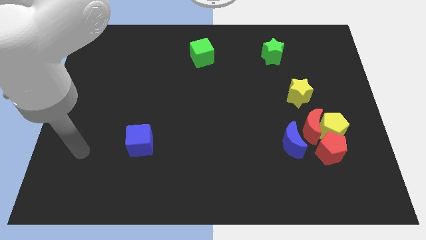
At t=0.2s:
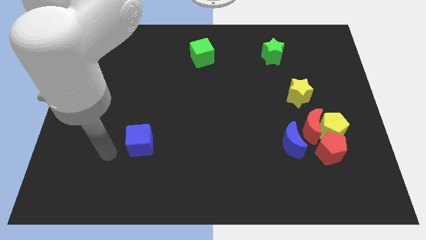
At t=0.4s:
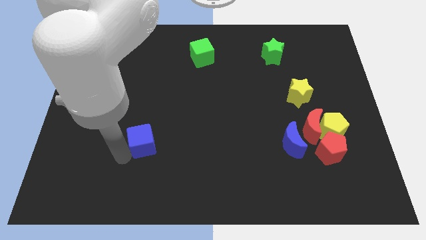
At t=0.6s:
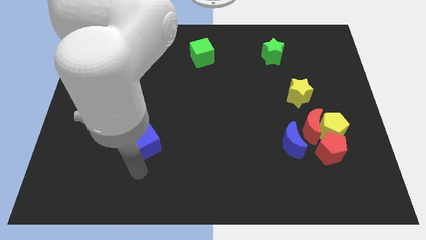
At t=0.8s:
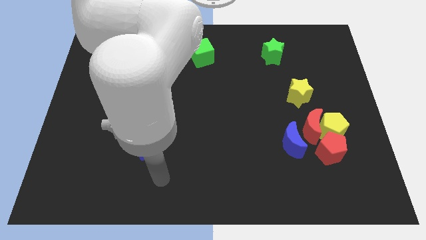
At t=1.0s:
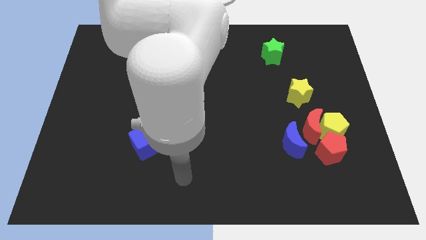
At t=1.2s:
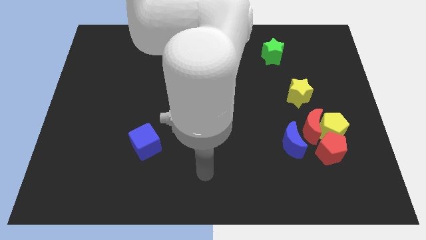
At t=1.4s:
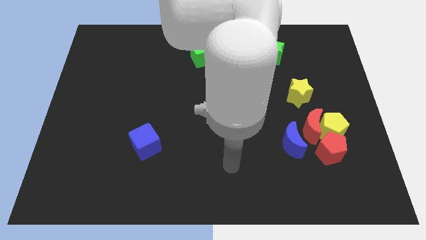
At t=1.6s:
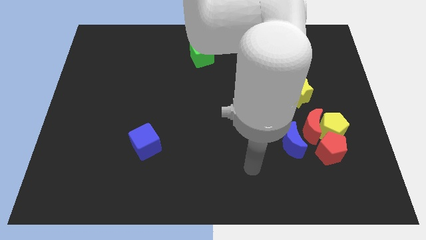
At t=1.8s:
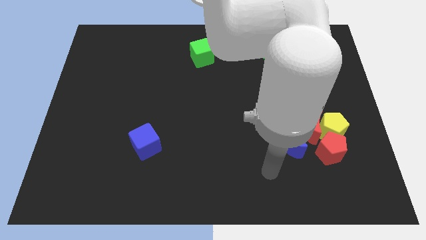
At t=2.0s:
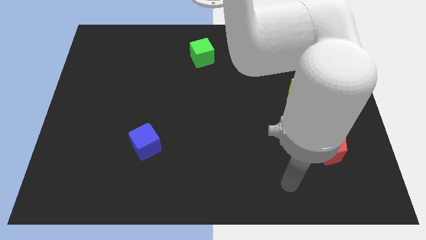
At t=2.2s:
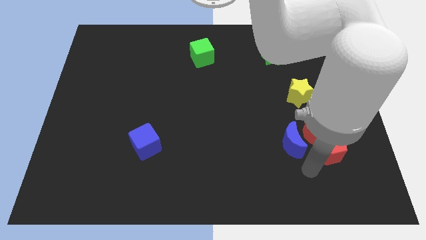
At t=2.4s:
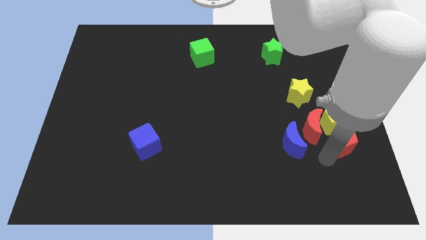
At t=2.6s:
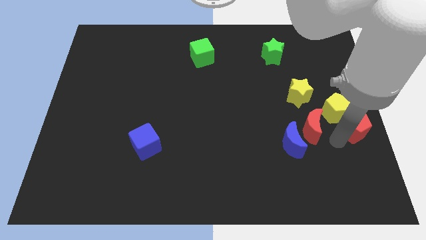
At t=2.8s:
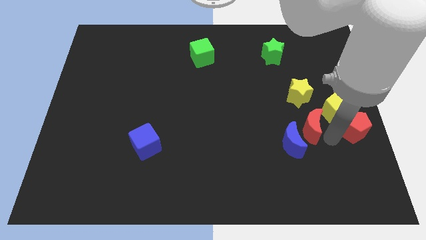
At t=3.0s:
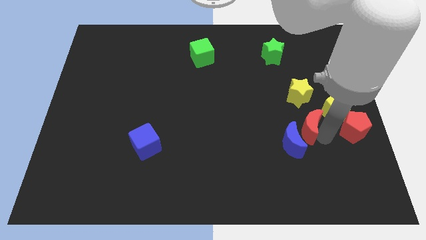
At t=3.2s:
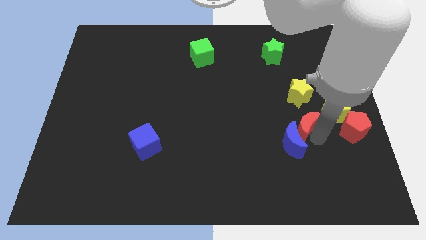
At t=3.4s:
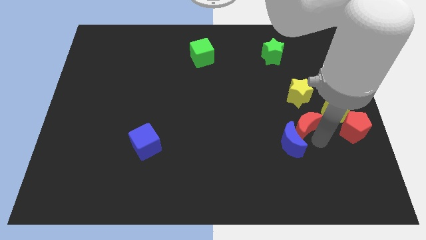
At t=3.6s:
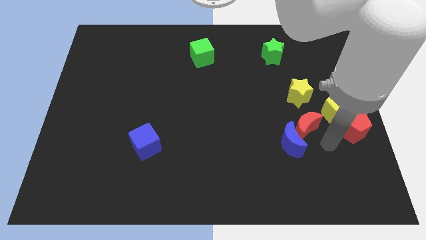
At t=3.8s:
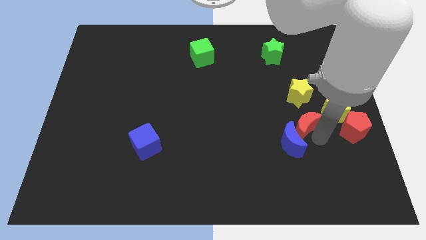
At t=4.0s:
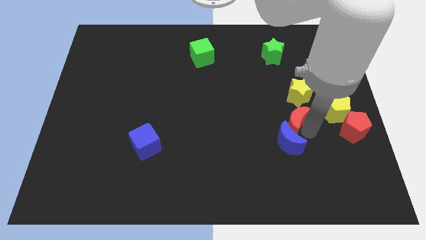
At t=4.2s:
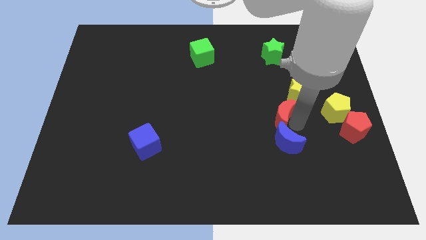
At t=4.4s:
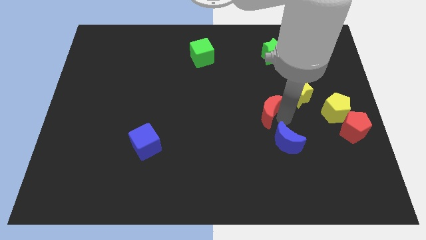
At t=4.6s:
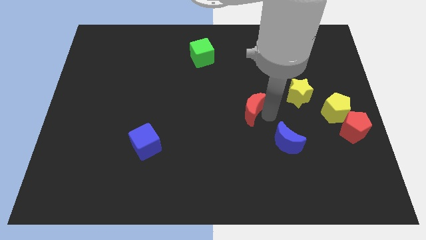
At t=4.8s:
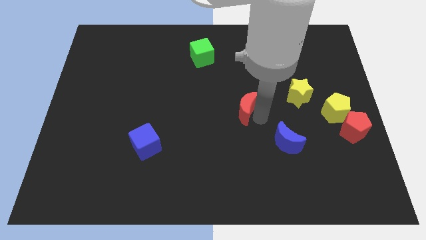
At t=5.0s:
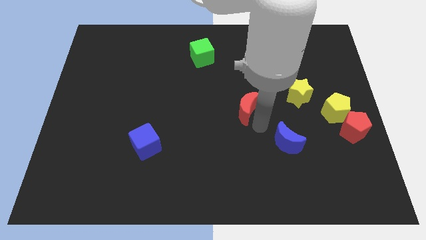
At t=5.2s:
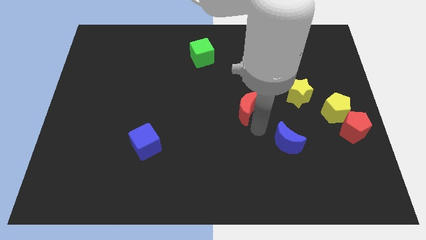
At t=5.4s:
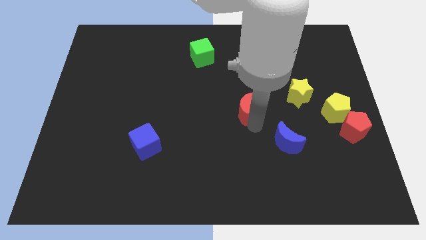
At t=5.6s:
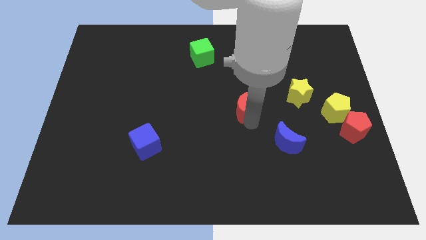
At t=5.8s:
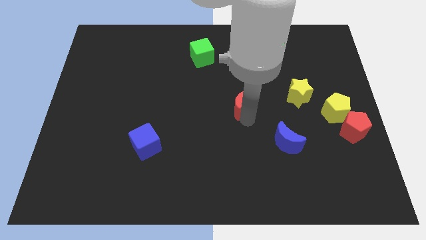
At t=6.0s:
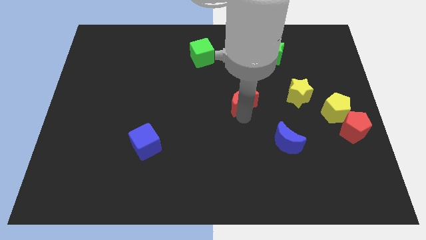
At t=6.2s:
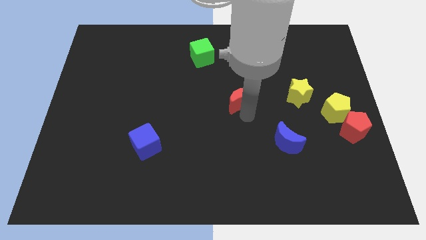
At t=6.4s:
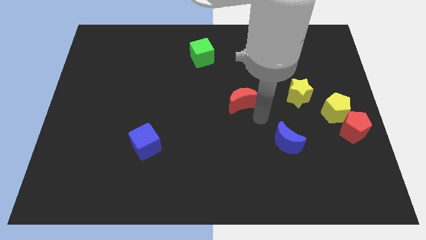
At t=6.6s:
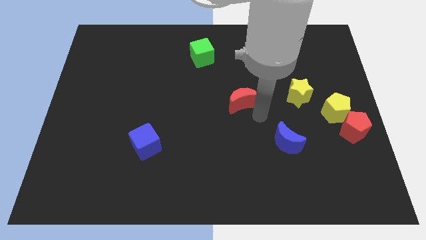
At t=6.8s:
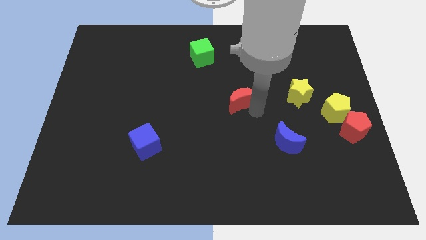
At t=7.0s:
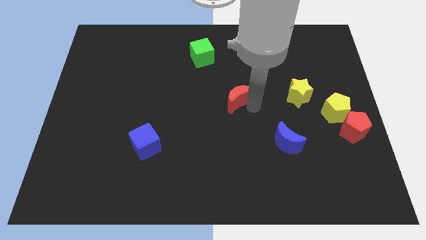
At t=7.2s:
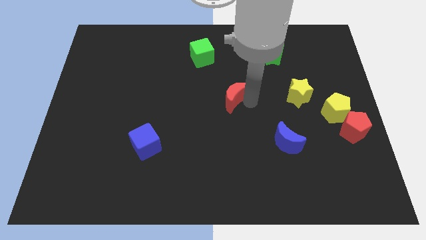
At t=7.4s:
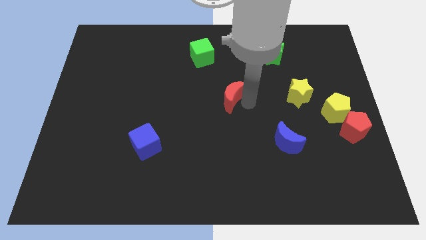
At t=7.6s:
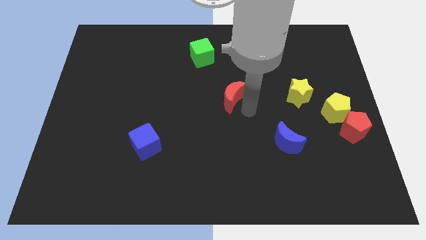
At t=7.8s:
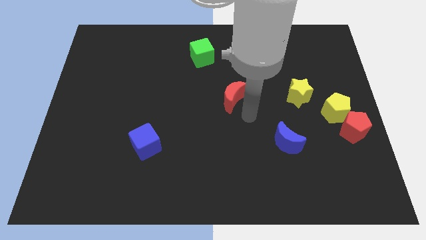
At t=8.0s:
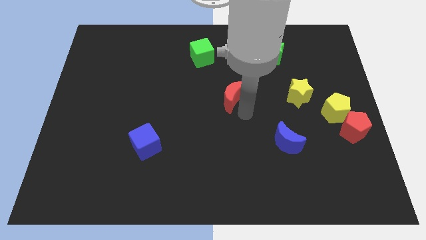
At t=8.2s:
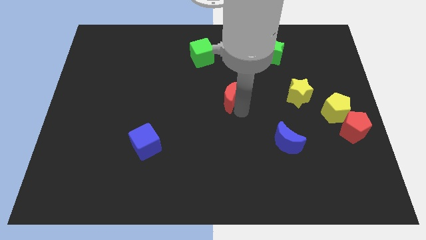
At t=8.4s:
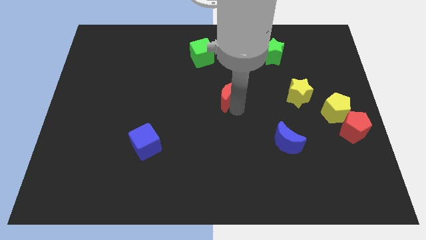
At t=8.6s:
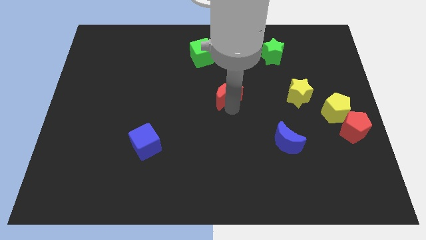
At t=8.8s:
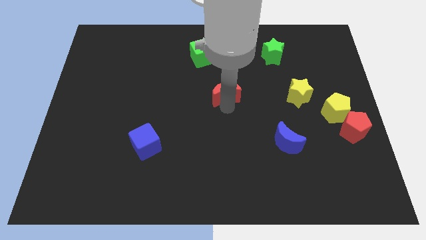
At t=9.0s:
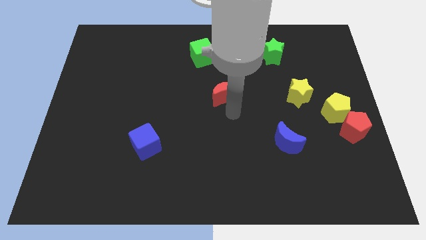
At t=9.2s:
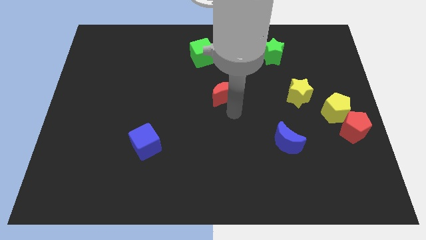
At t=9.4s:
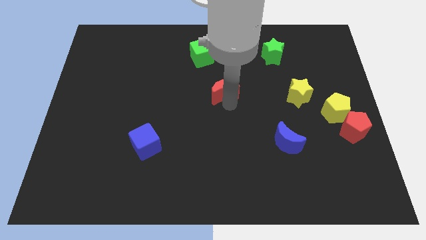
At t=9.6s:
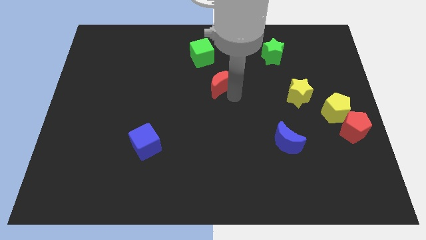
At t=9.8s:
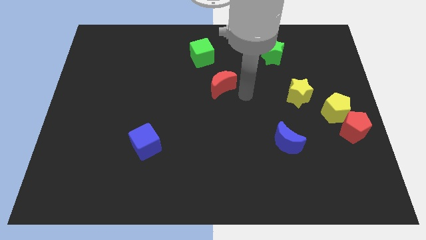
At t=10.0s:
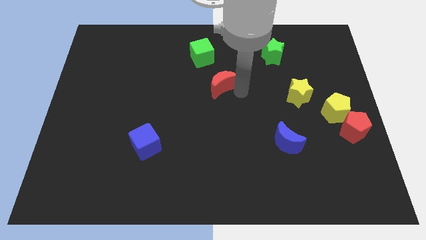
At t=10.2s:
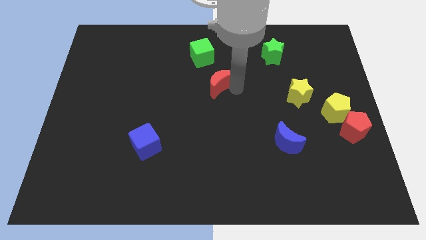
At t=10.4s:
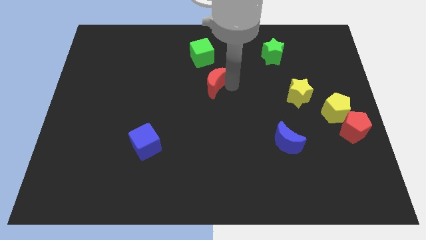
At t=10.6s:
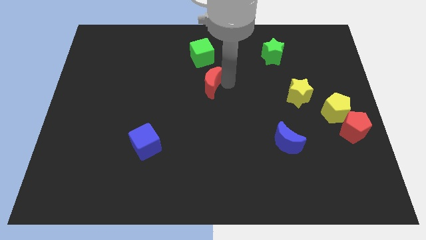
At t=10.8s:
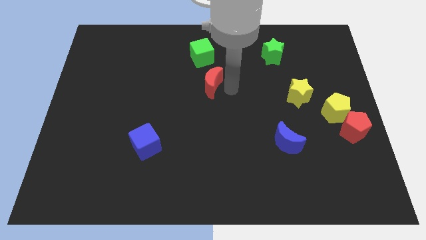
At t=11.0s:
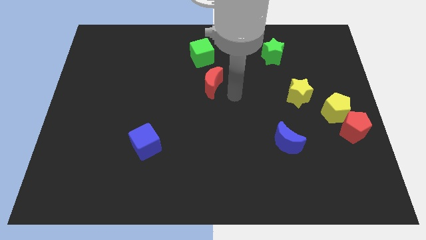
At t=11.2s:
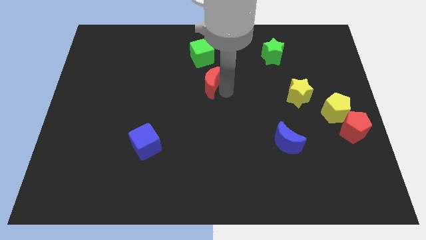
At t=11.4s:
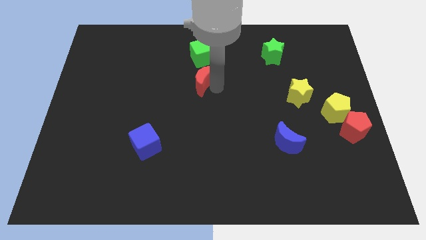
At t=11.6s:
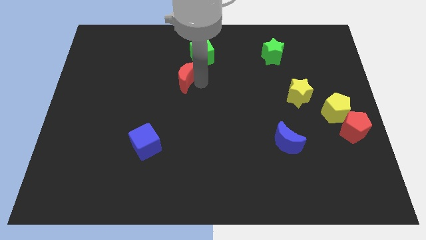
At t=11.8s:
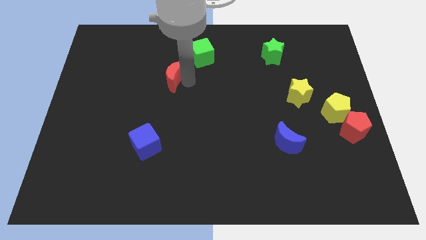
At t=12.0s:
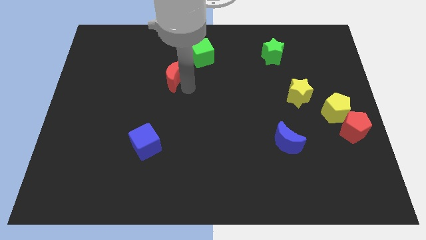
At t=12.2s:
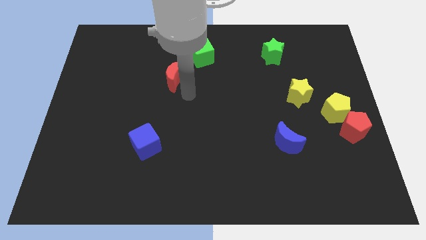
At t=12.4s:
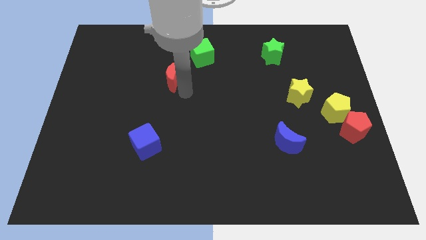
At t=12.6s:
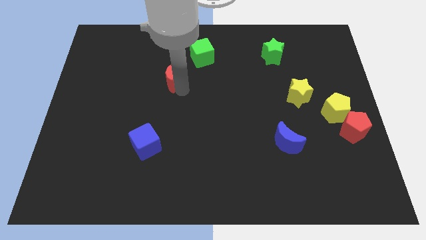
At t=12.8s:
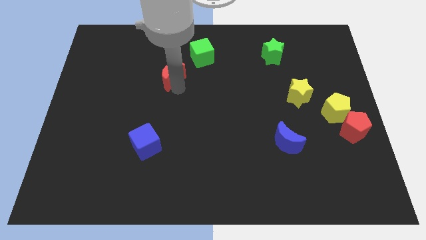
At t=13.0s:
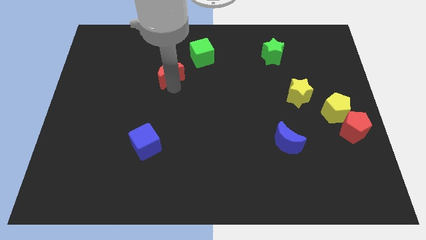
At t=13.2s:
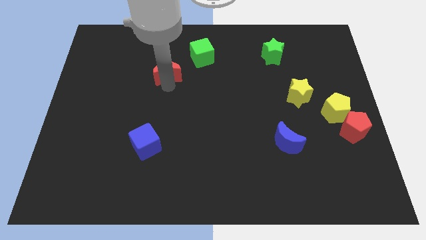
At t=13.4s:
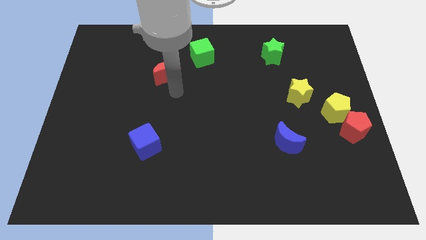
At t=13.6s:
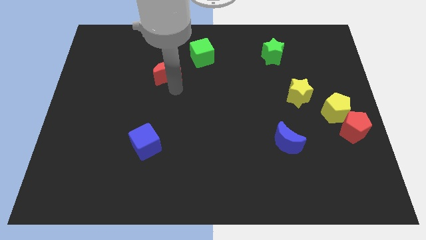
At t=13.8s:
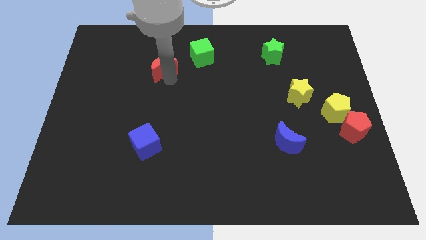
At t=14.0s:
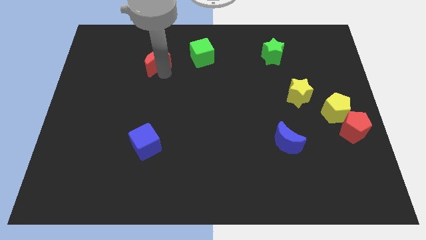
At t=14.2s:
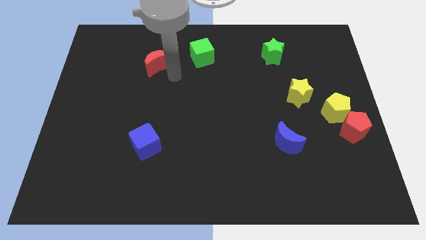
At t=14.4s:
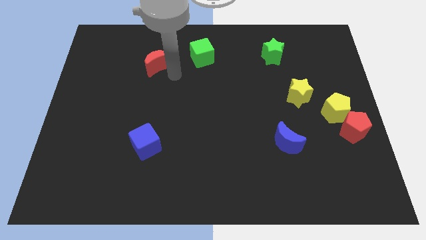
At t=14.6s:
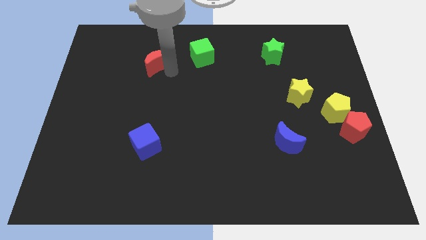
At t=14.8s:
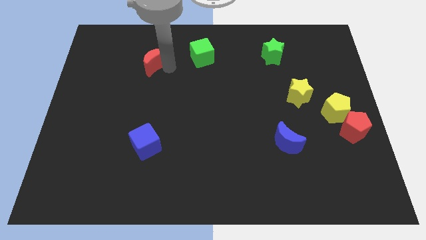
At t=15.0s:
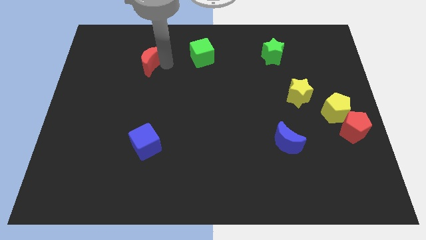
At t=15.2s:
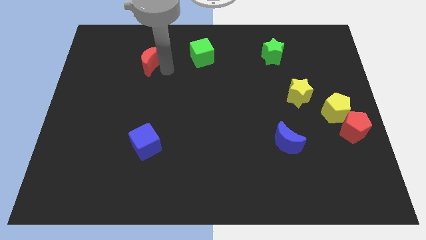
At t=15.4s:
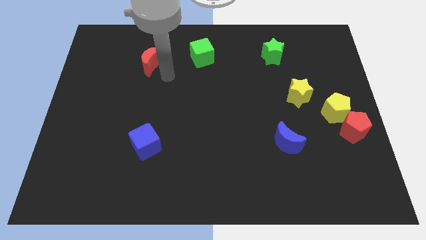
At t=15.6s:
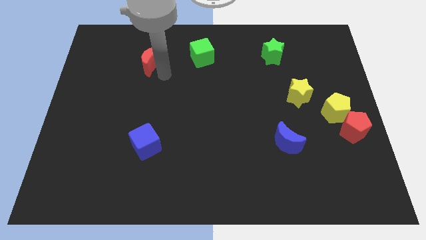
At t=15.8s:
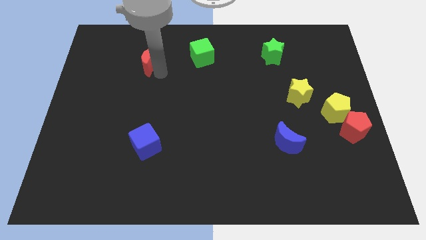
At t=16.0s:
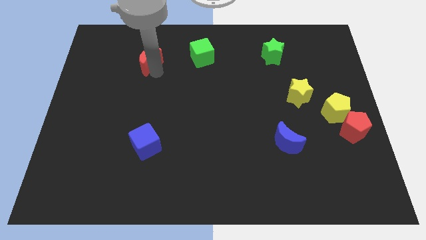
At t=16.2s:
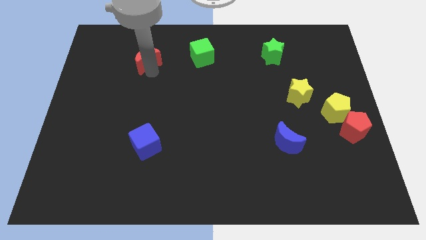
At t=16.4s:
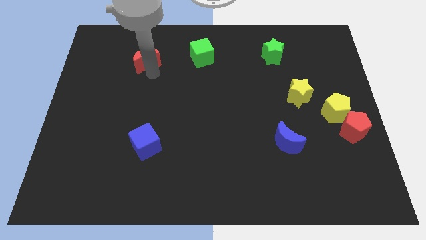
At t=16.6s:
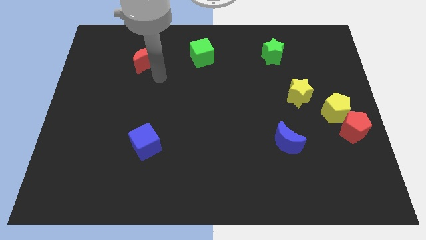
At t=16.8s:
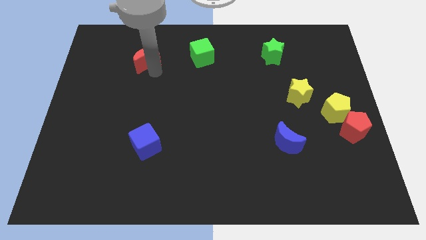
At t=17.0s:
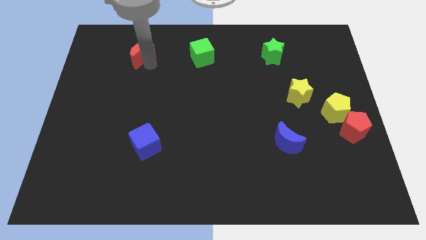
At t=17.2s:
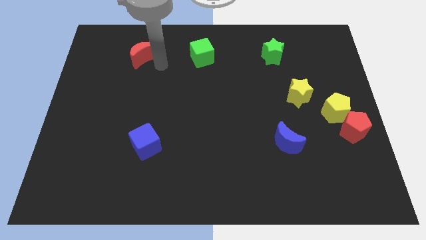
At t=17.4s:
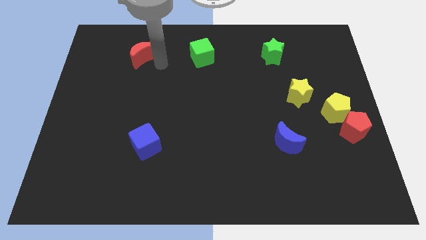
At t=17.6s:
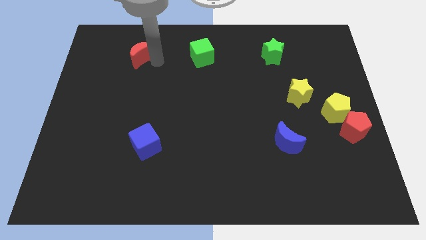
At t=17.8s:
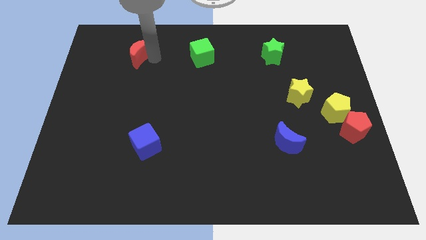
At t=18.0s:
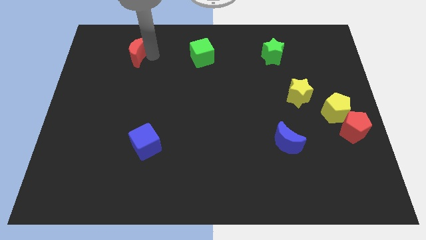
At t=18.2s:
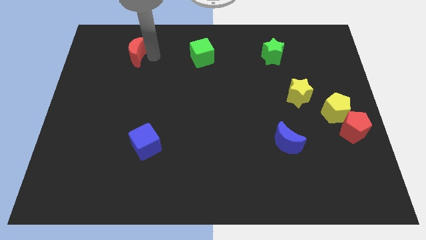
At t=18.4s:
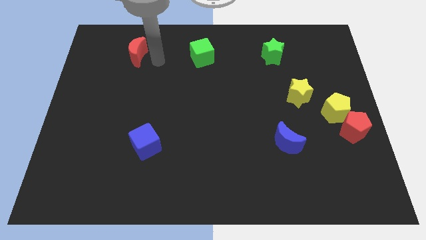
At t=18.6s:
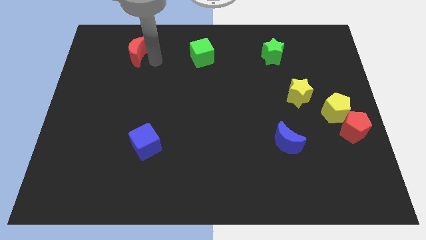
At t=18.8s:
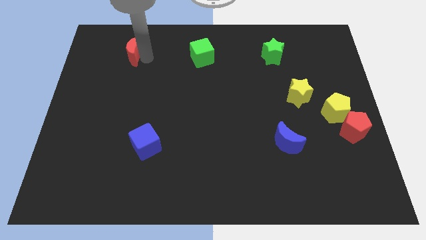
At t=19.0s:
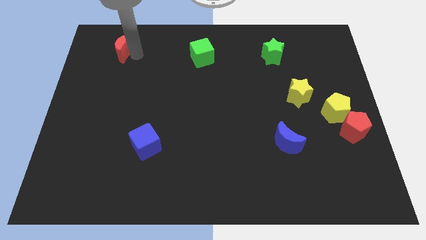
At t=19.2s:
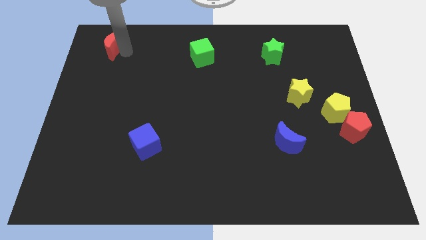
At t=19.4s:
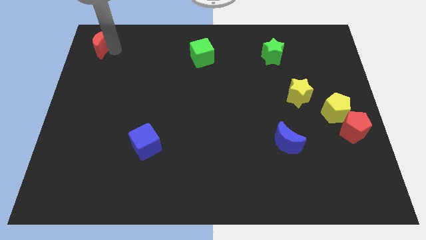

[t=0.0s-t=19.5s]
slide the red moon to the top left corner
